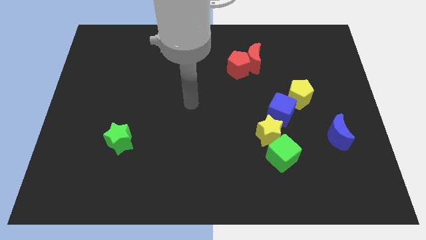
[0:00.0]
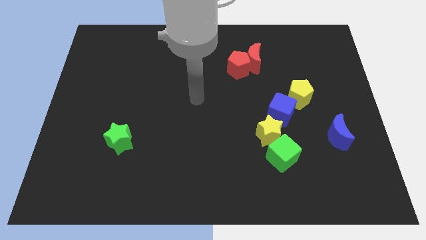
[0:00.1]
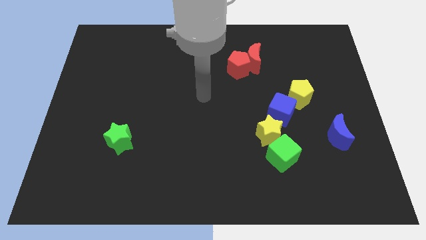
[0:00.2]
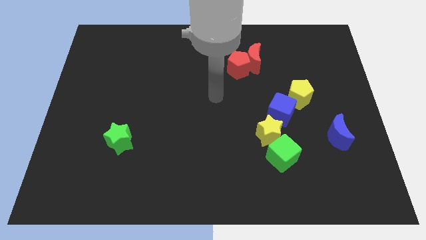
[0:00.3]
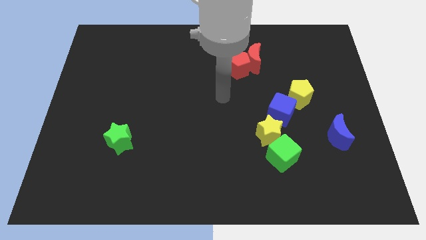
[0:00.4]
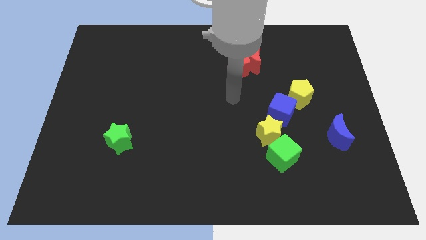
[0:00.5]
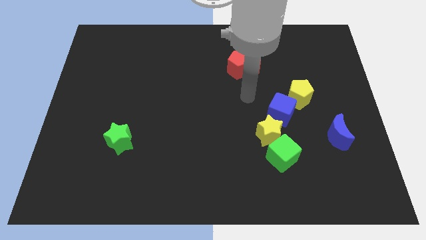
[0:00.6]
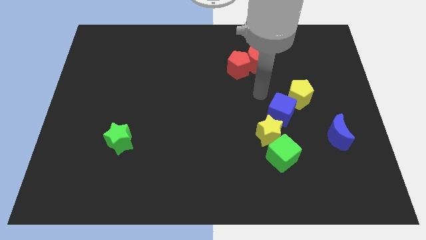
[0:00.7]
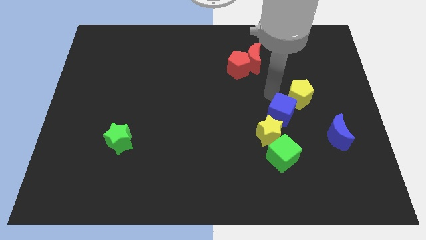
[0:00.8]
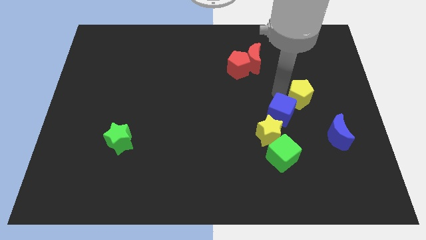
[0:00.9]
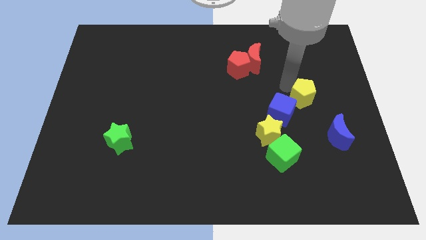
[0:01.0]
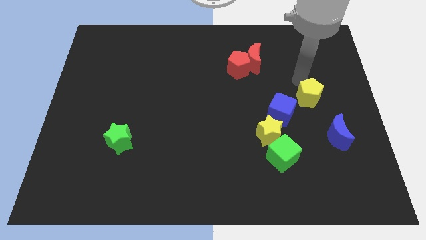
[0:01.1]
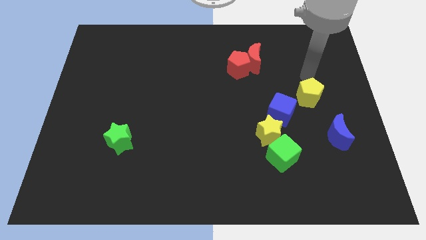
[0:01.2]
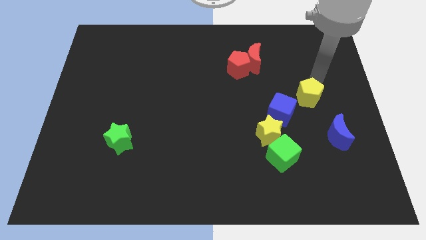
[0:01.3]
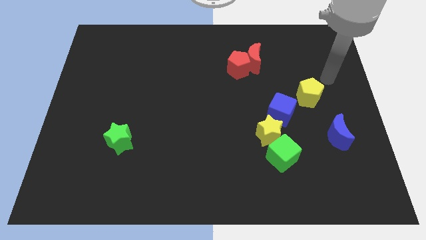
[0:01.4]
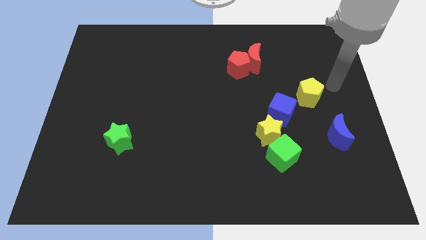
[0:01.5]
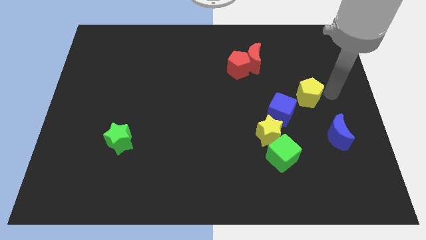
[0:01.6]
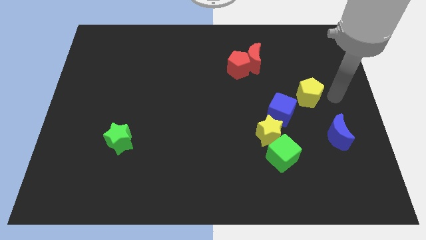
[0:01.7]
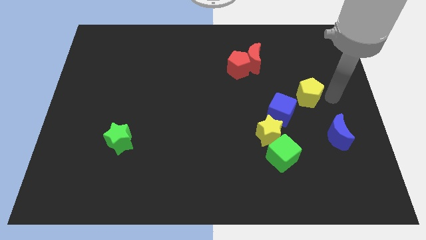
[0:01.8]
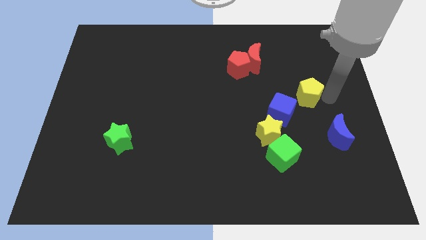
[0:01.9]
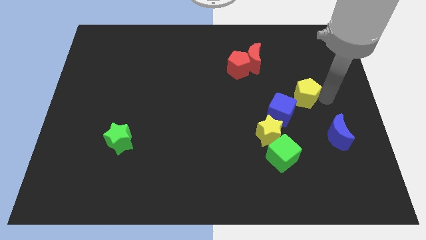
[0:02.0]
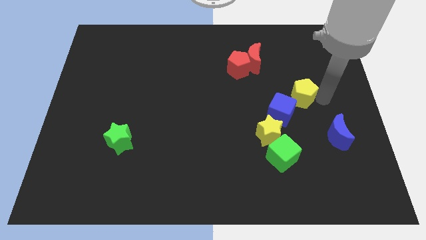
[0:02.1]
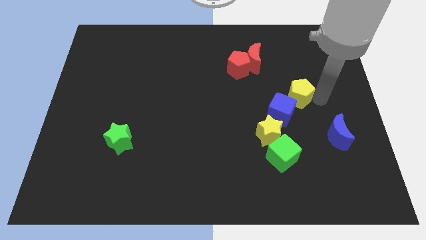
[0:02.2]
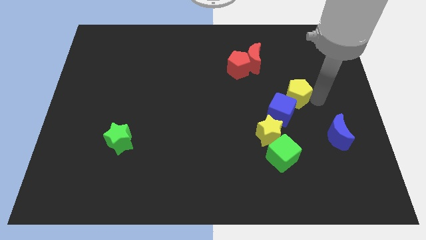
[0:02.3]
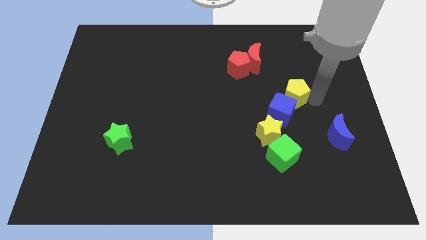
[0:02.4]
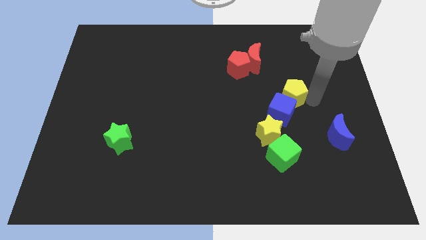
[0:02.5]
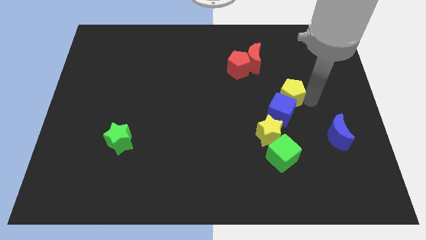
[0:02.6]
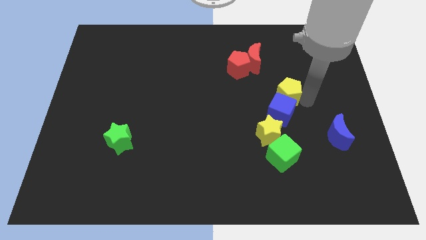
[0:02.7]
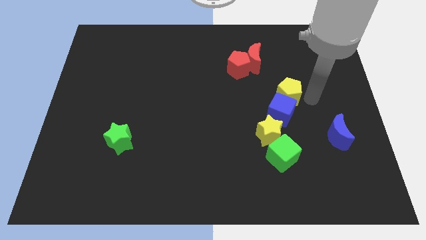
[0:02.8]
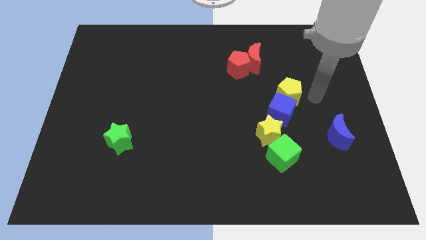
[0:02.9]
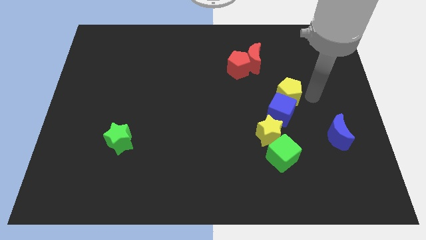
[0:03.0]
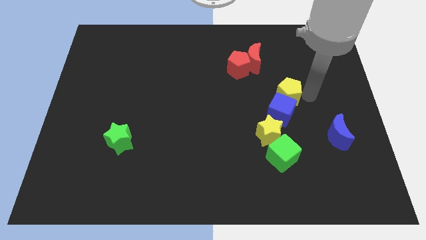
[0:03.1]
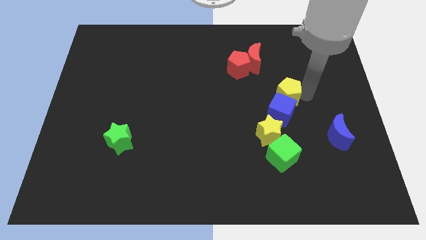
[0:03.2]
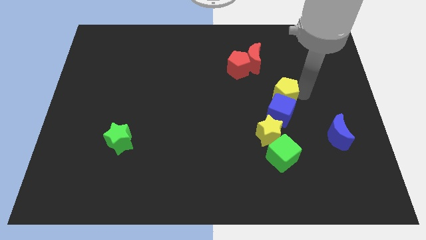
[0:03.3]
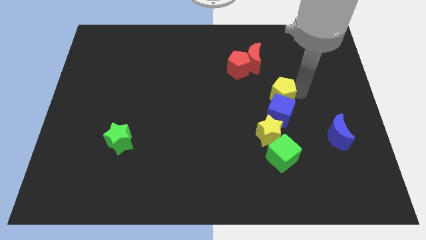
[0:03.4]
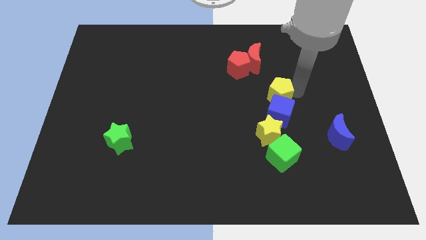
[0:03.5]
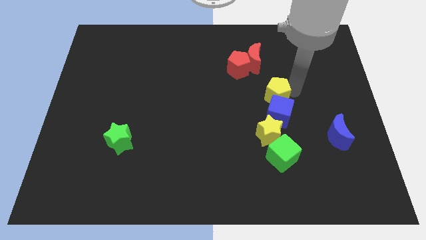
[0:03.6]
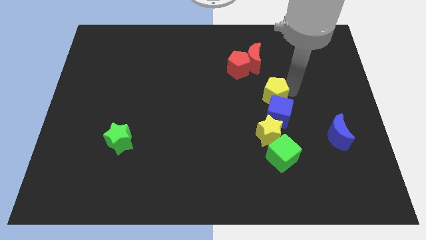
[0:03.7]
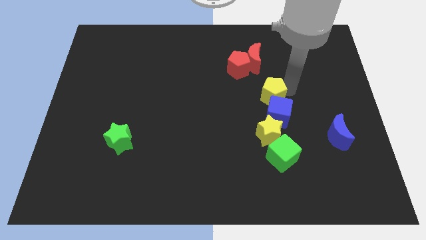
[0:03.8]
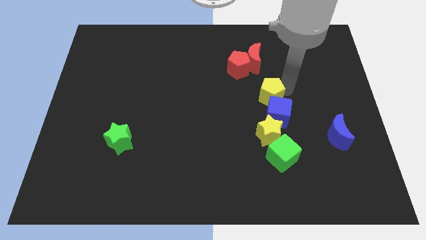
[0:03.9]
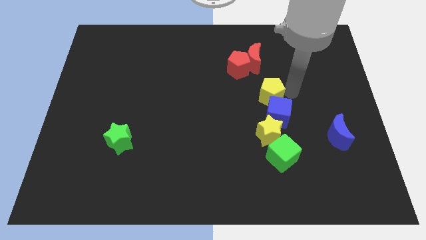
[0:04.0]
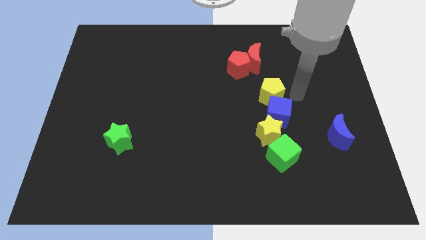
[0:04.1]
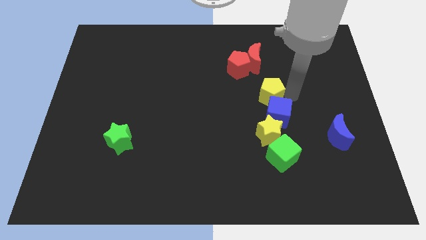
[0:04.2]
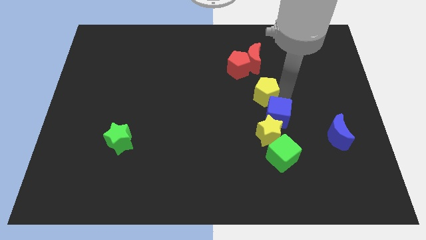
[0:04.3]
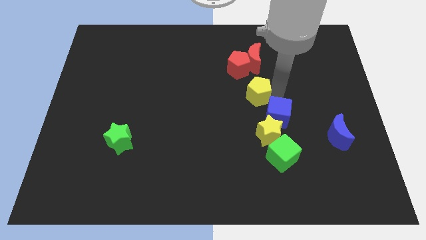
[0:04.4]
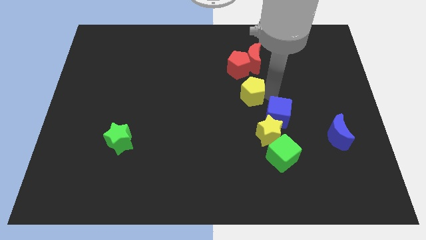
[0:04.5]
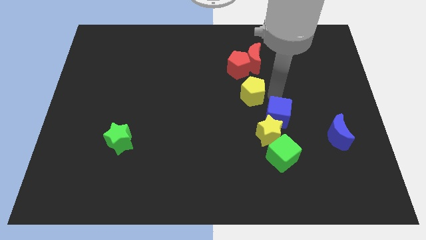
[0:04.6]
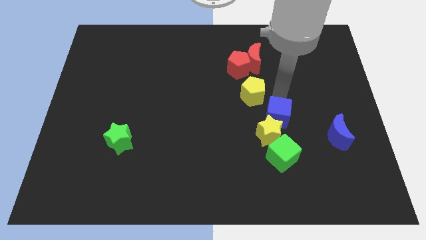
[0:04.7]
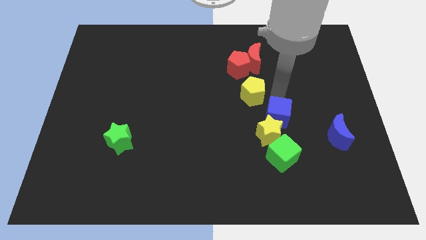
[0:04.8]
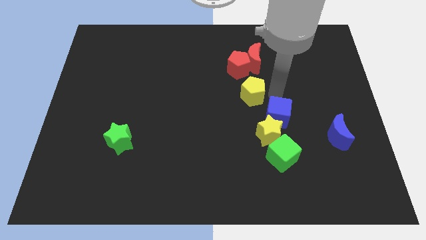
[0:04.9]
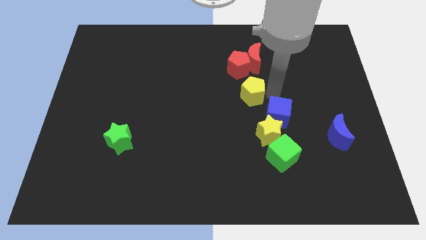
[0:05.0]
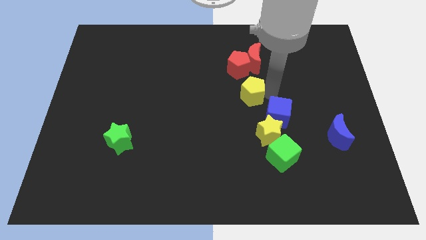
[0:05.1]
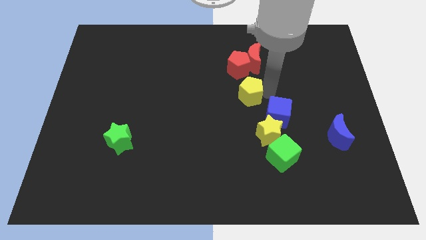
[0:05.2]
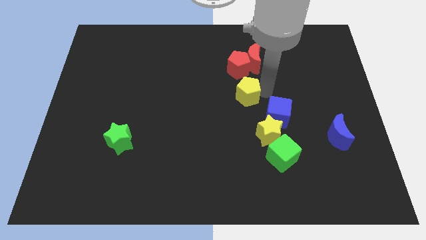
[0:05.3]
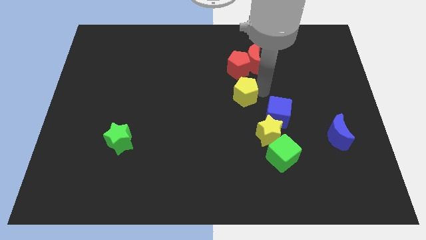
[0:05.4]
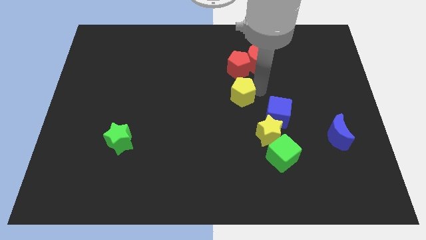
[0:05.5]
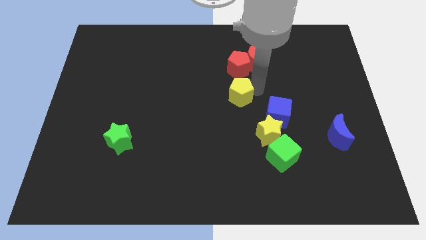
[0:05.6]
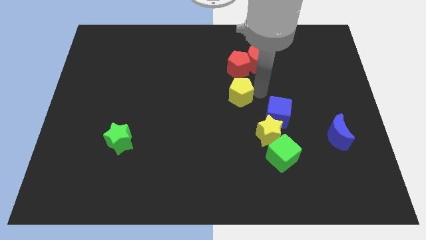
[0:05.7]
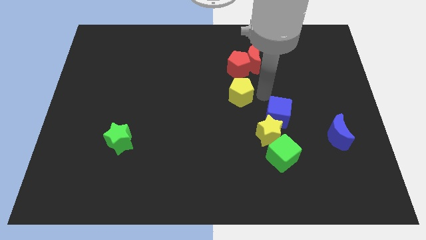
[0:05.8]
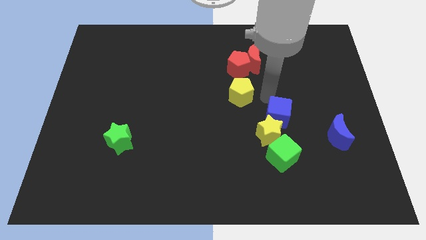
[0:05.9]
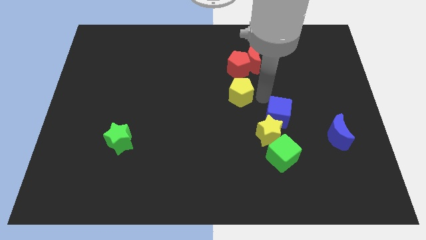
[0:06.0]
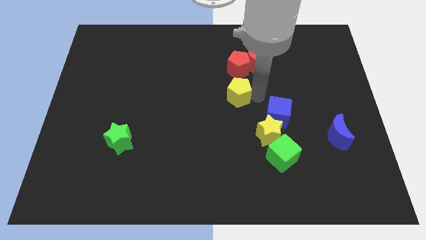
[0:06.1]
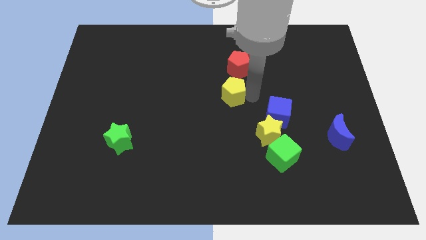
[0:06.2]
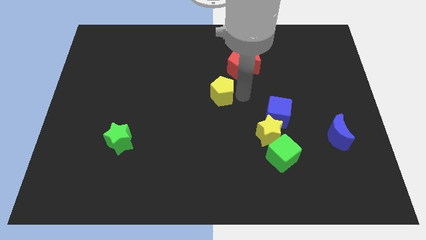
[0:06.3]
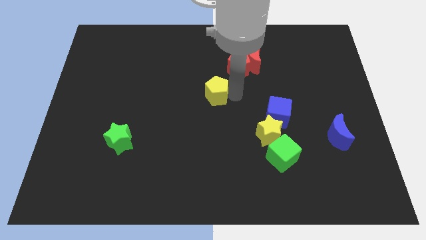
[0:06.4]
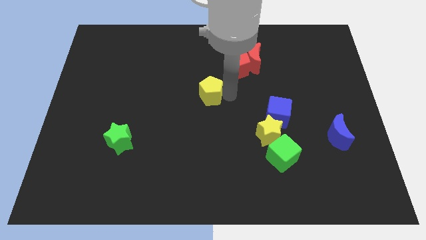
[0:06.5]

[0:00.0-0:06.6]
move the yellow pentagon to the left

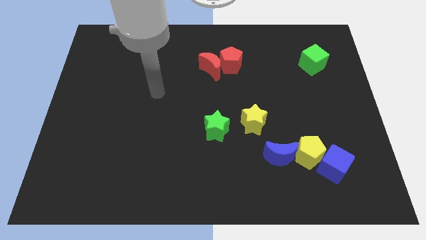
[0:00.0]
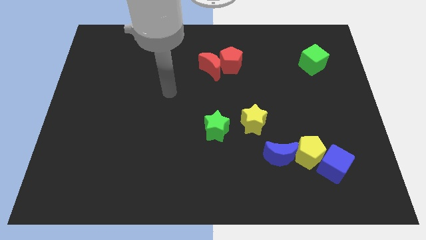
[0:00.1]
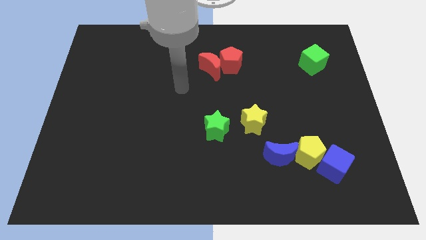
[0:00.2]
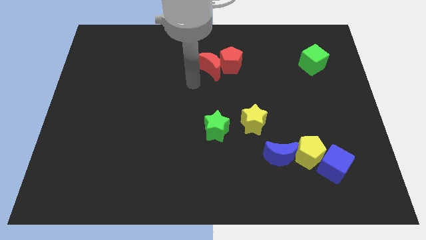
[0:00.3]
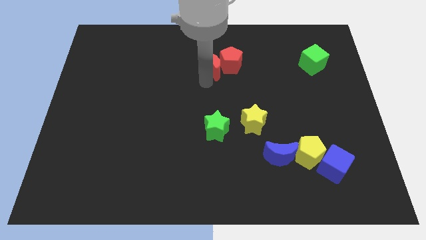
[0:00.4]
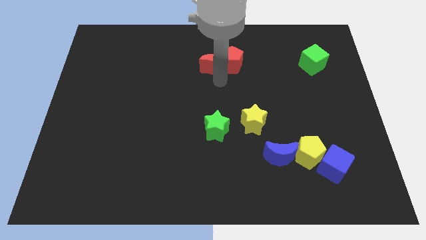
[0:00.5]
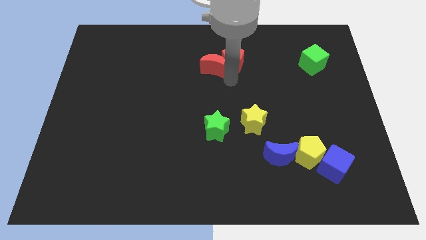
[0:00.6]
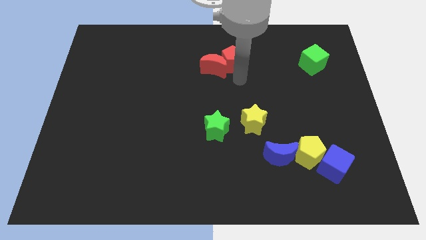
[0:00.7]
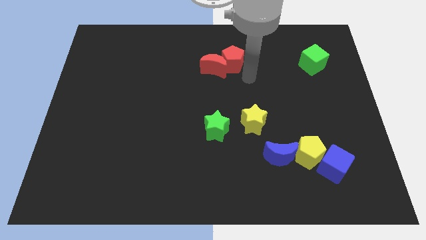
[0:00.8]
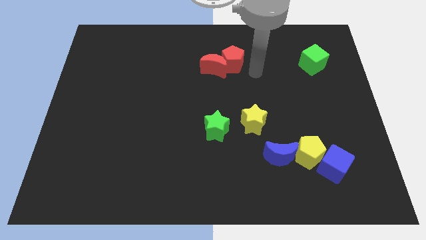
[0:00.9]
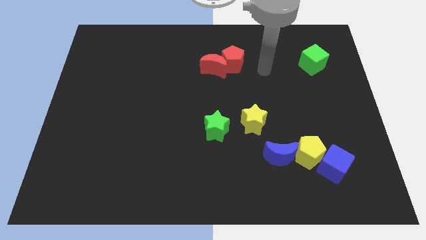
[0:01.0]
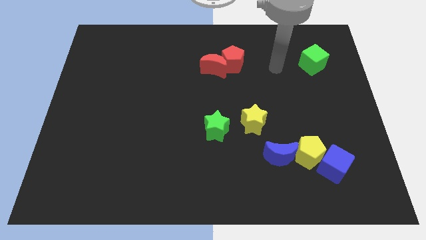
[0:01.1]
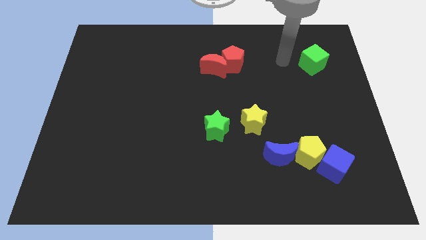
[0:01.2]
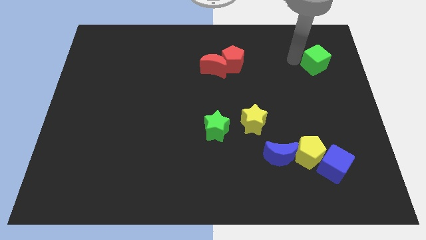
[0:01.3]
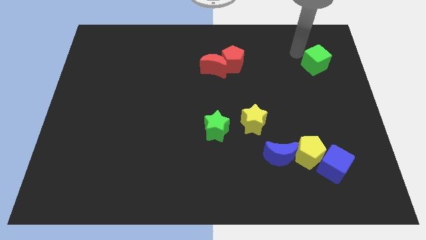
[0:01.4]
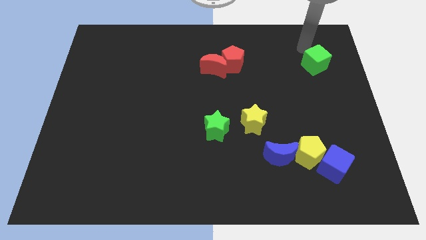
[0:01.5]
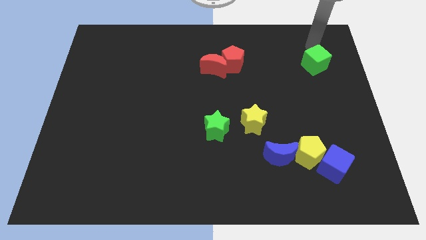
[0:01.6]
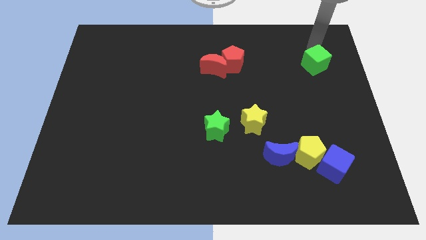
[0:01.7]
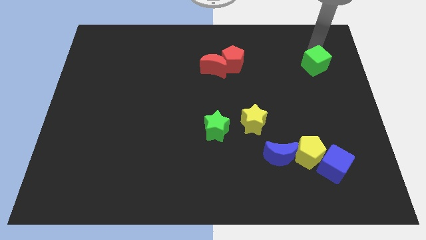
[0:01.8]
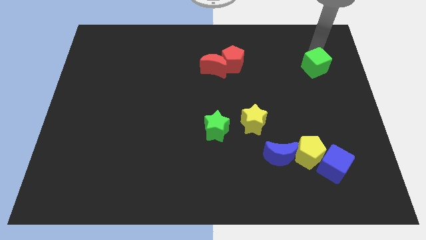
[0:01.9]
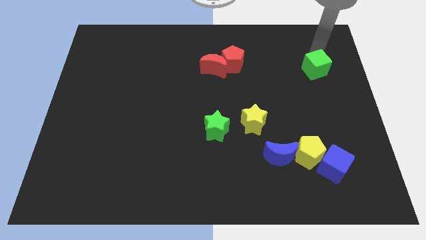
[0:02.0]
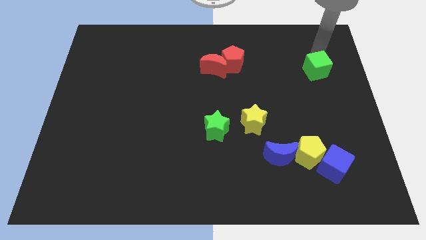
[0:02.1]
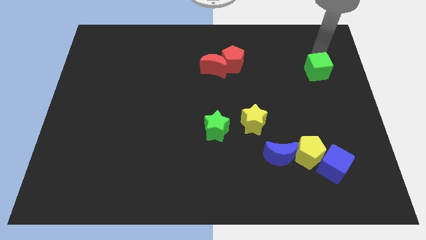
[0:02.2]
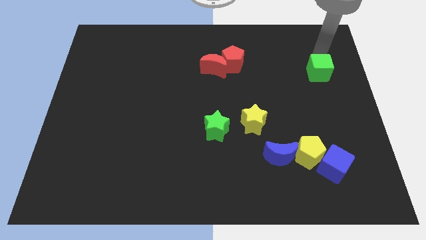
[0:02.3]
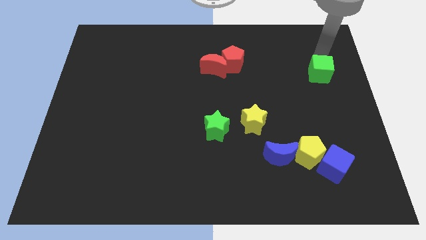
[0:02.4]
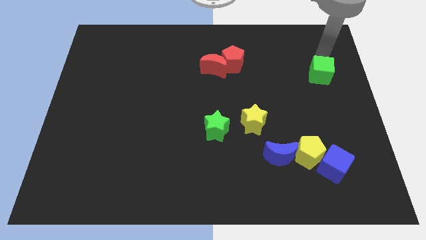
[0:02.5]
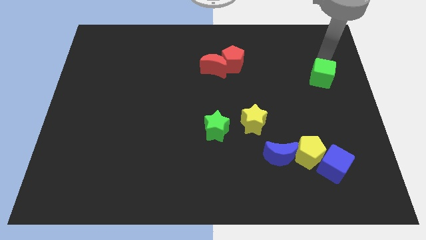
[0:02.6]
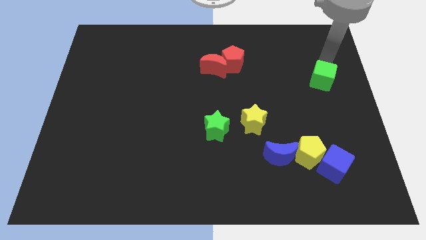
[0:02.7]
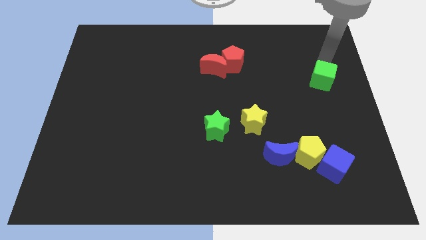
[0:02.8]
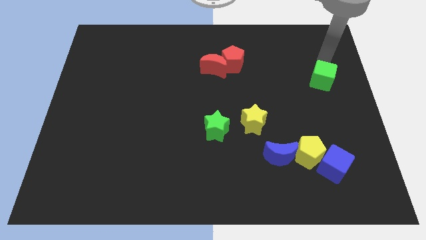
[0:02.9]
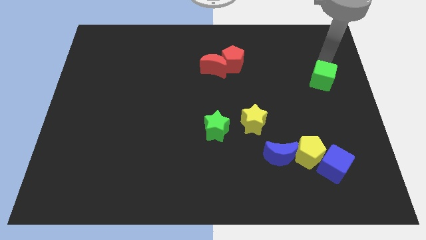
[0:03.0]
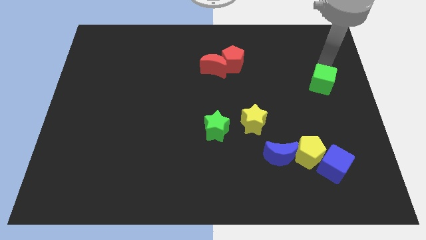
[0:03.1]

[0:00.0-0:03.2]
slide the green cube downwards a little bit
